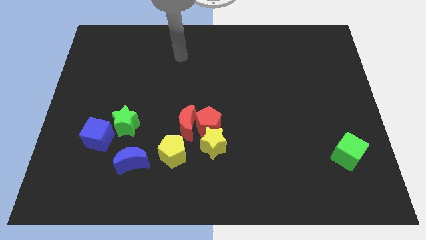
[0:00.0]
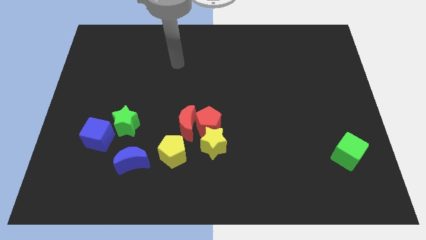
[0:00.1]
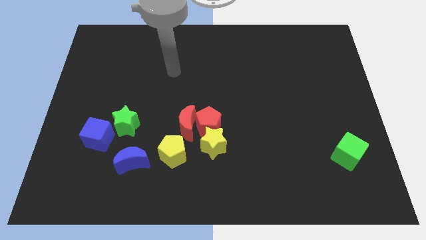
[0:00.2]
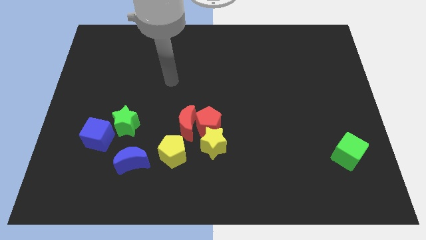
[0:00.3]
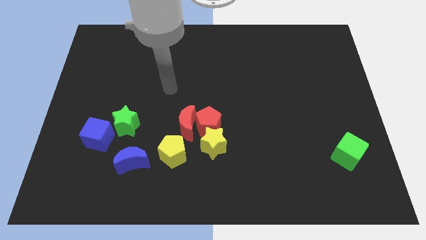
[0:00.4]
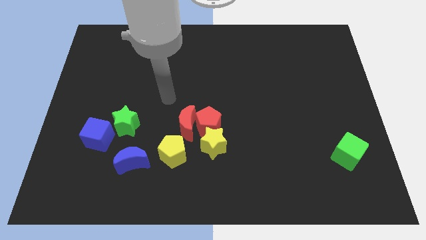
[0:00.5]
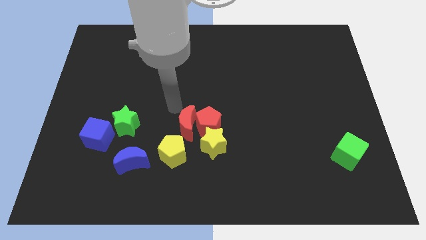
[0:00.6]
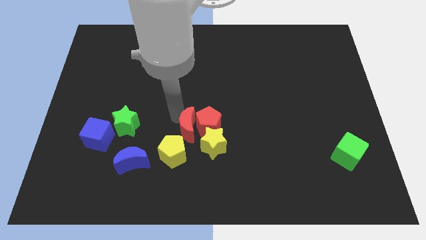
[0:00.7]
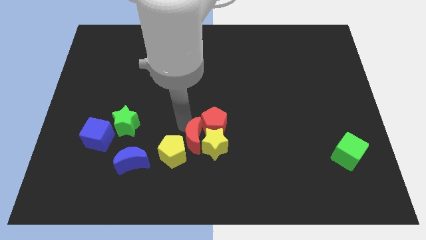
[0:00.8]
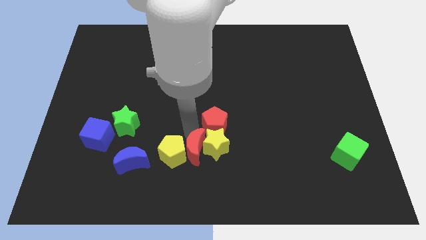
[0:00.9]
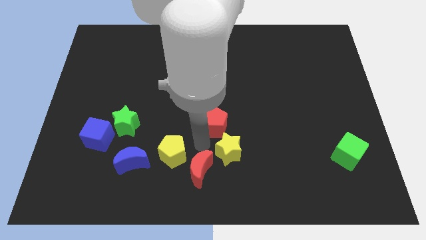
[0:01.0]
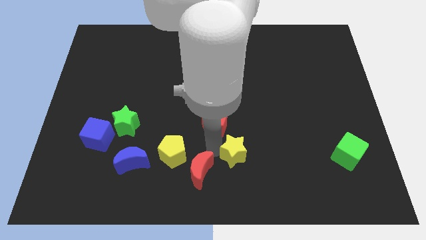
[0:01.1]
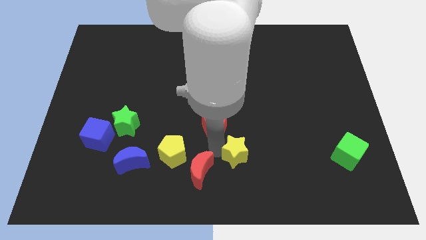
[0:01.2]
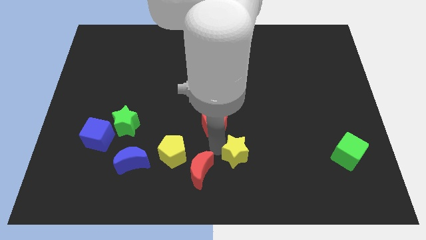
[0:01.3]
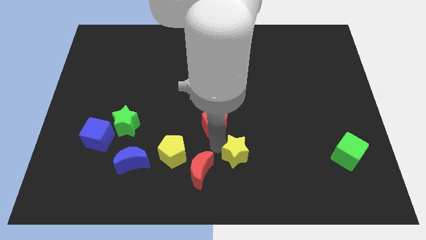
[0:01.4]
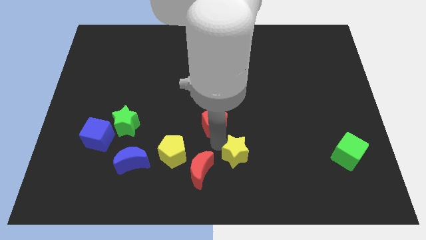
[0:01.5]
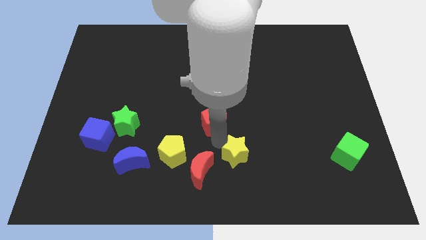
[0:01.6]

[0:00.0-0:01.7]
pull the red pentagon apart from the red moon and yellow star

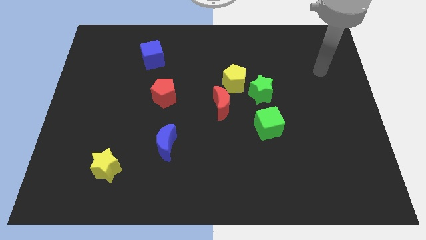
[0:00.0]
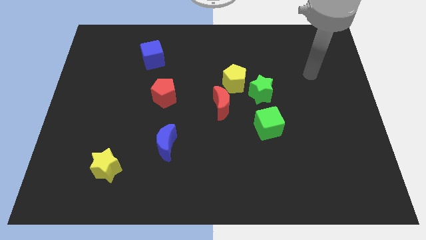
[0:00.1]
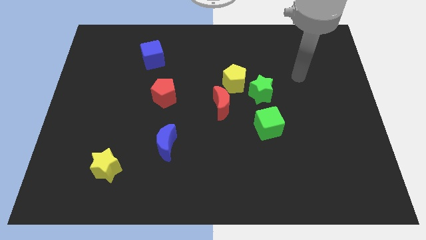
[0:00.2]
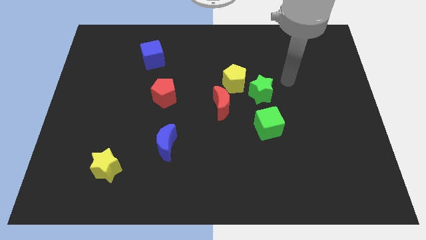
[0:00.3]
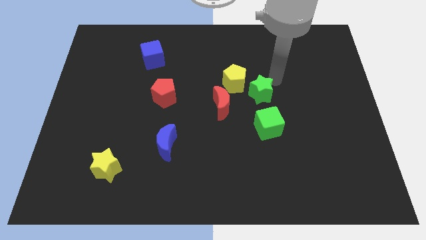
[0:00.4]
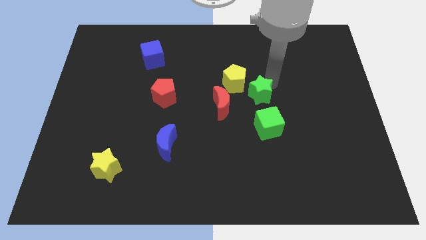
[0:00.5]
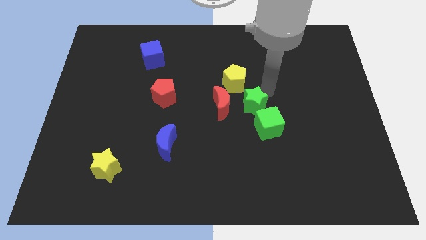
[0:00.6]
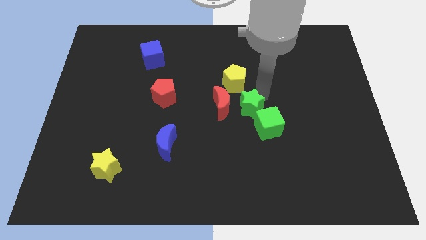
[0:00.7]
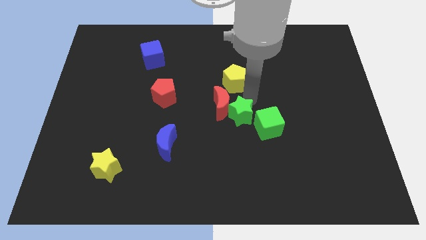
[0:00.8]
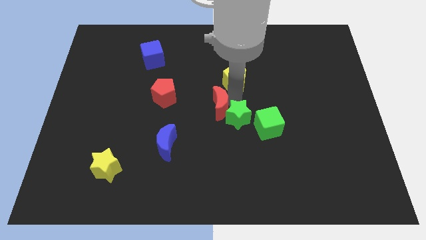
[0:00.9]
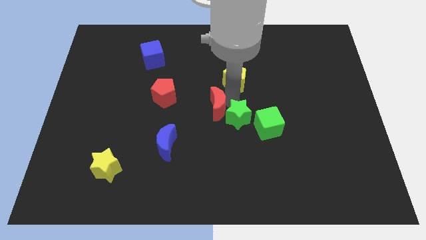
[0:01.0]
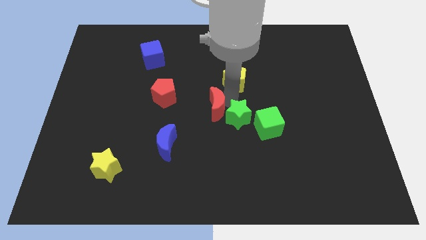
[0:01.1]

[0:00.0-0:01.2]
pull the yellow pentagon apart from the green star and red moon

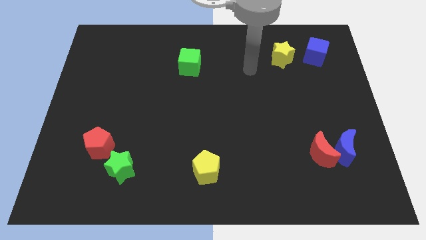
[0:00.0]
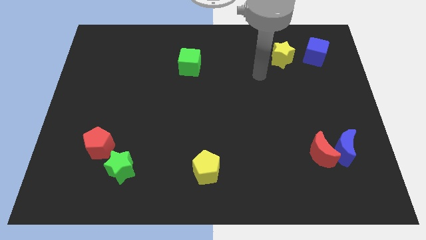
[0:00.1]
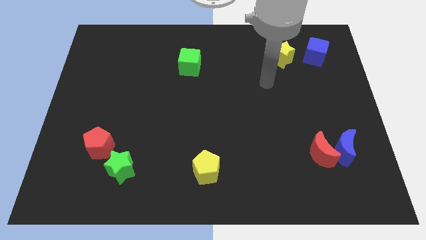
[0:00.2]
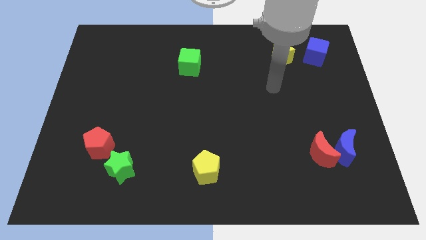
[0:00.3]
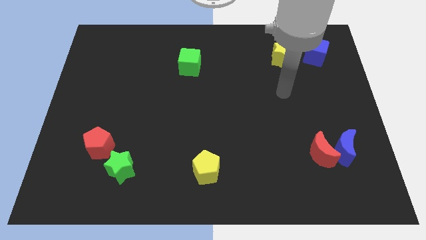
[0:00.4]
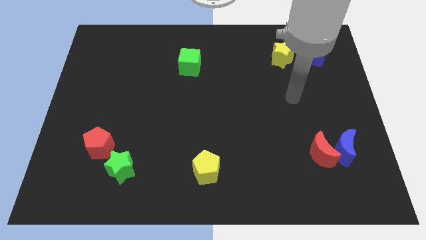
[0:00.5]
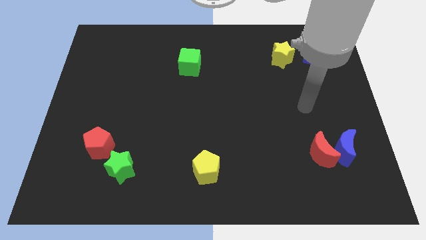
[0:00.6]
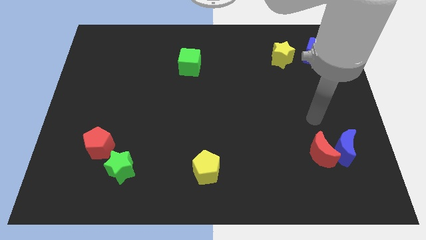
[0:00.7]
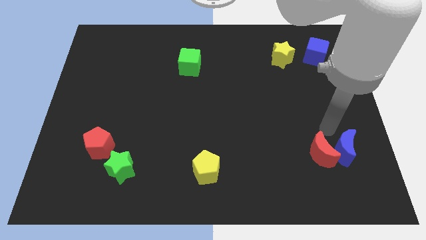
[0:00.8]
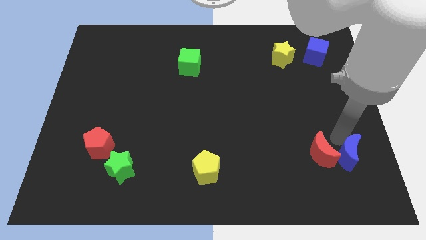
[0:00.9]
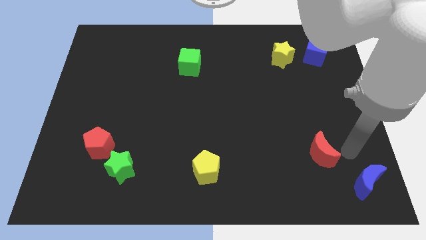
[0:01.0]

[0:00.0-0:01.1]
pull the red moon apart from the blue moon

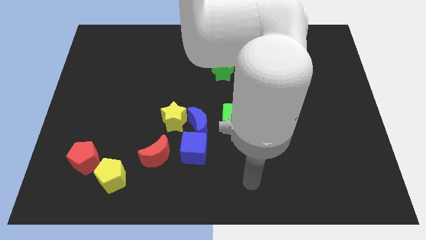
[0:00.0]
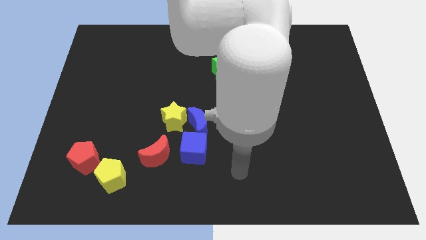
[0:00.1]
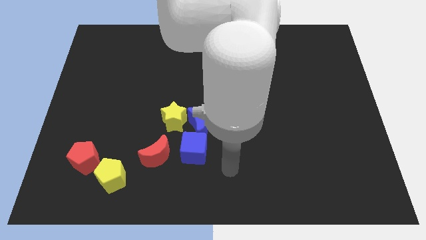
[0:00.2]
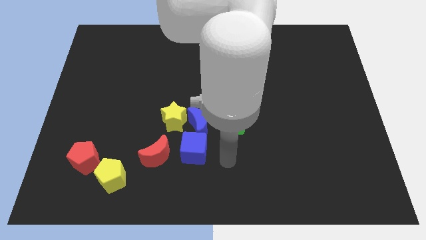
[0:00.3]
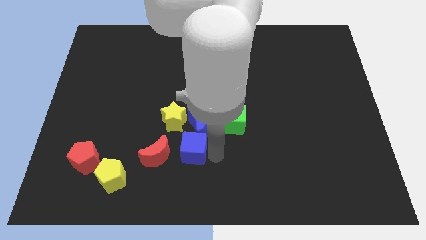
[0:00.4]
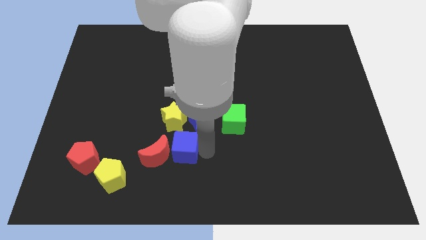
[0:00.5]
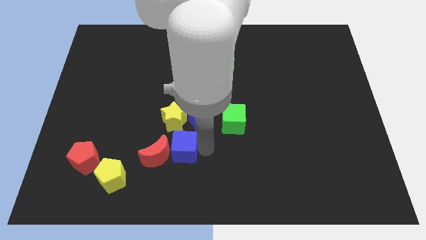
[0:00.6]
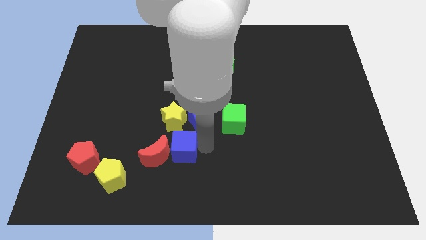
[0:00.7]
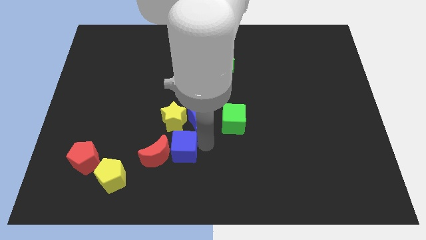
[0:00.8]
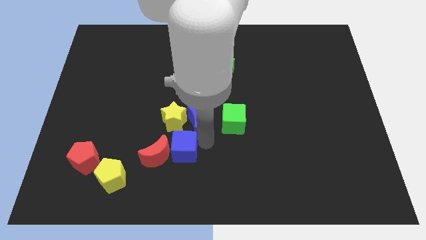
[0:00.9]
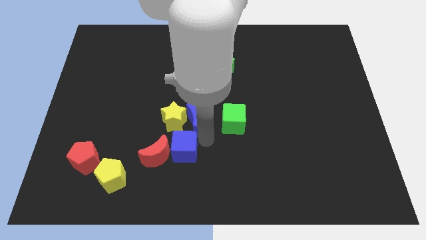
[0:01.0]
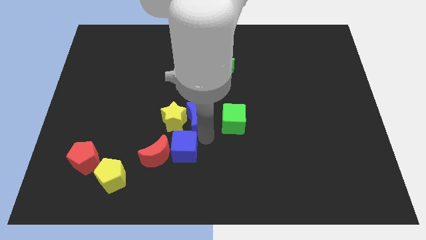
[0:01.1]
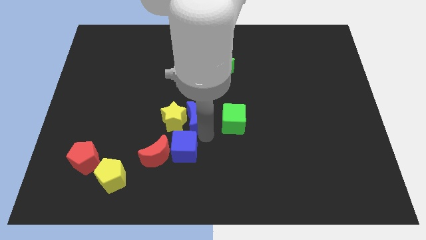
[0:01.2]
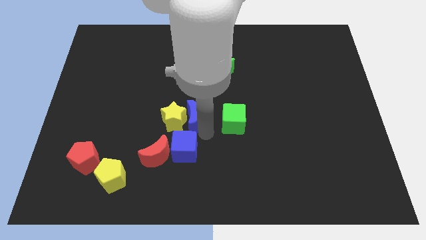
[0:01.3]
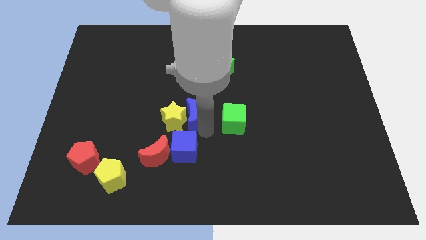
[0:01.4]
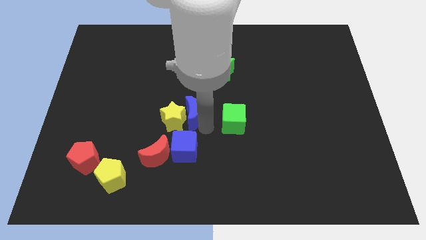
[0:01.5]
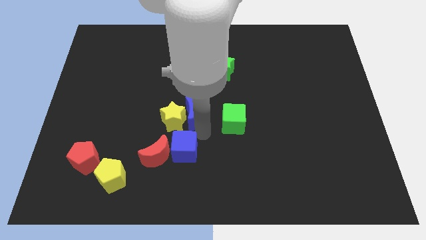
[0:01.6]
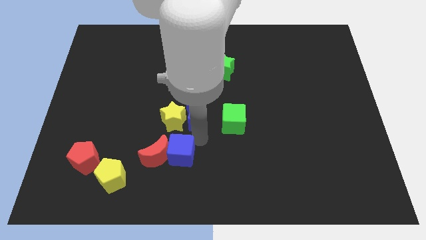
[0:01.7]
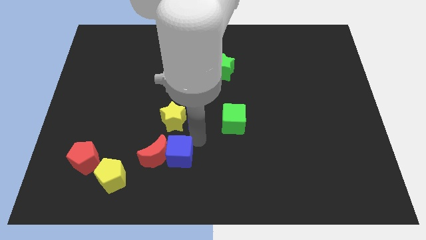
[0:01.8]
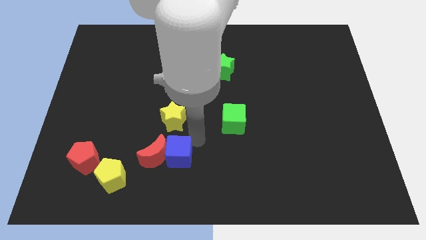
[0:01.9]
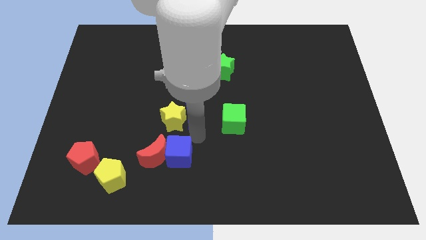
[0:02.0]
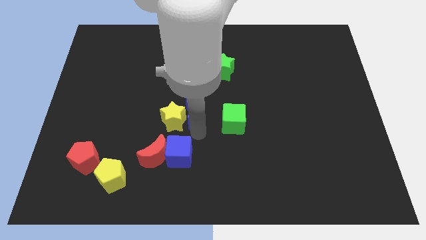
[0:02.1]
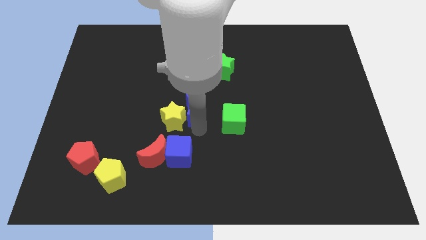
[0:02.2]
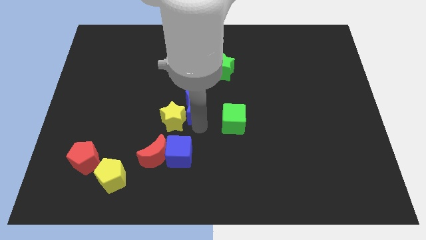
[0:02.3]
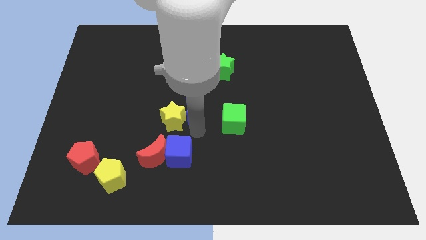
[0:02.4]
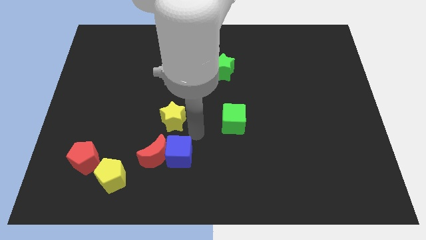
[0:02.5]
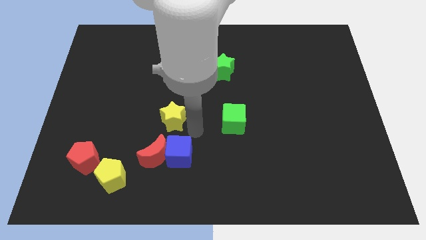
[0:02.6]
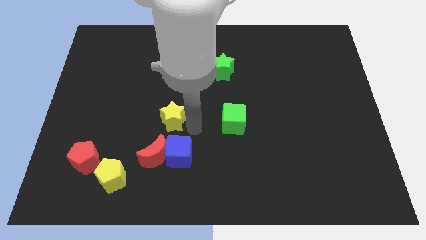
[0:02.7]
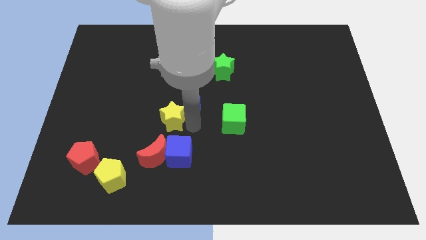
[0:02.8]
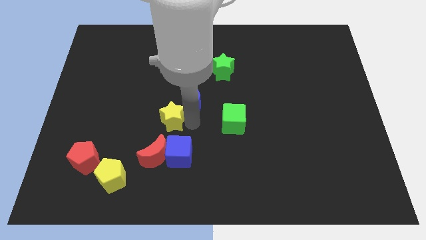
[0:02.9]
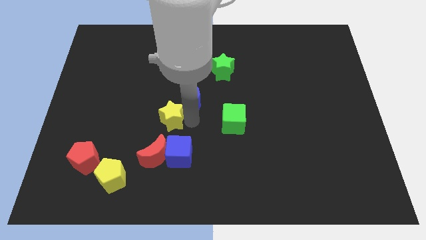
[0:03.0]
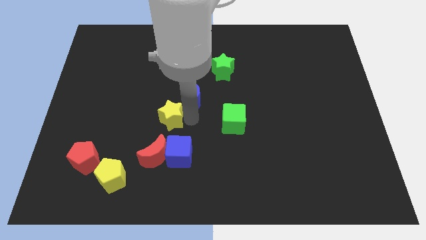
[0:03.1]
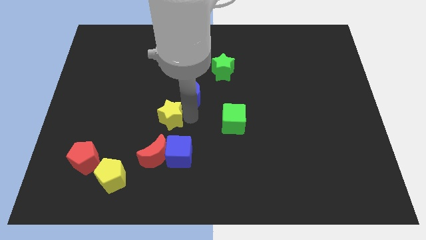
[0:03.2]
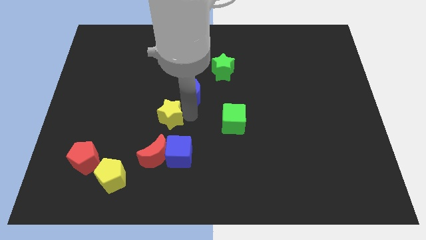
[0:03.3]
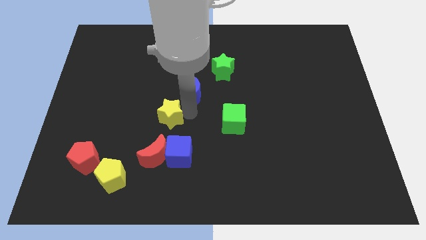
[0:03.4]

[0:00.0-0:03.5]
separate the blue moon from the yellow star, blue cube, and green cube

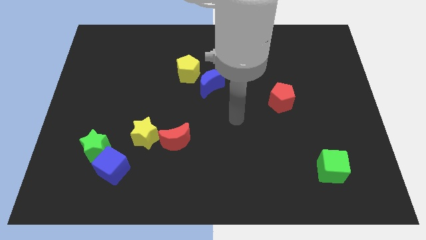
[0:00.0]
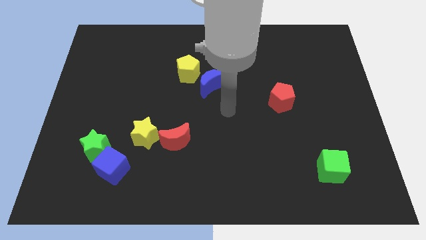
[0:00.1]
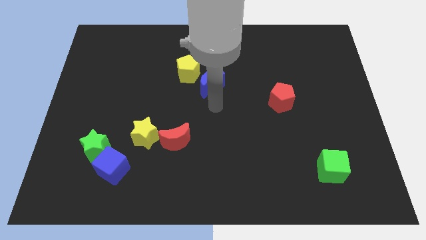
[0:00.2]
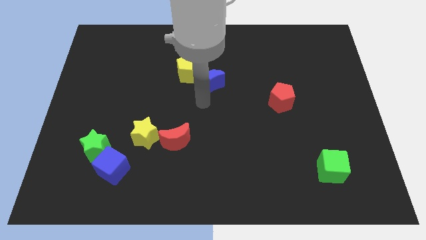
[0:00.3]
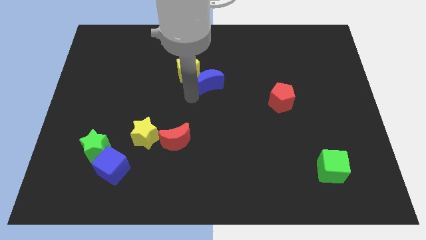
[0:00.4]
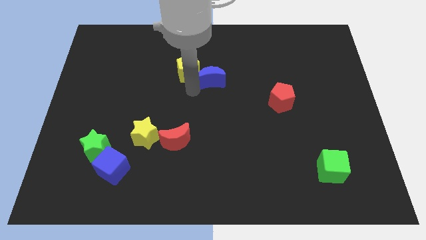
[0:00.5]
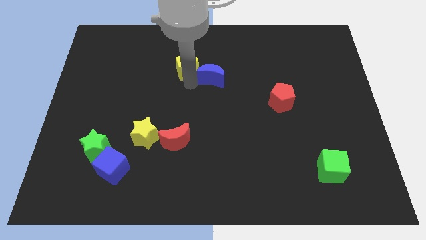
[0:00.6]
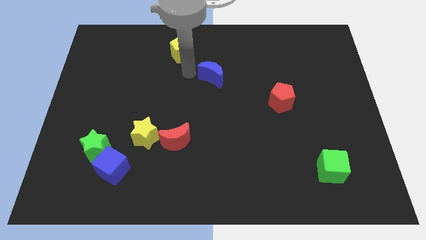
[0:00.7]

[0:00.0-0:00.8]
move the blue moon away from the yellow pentagon

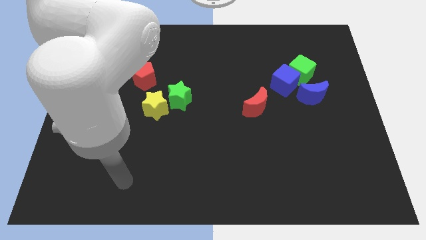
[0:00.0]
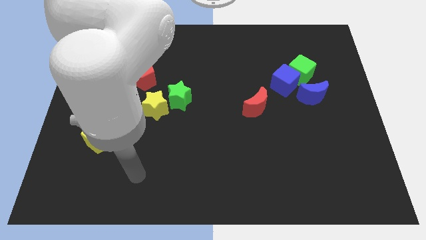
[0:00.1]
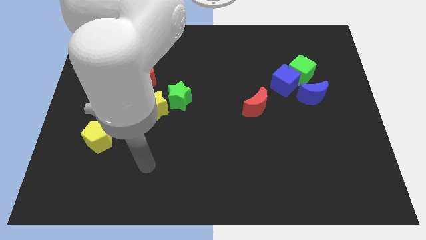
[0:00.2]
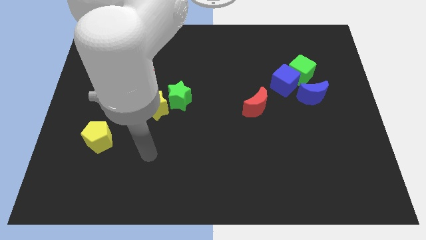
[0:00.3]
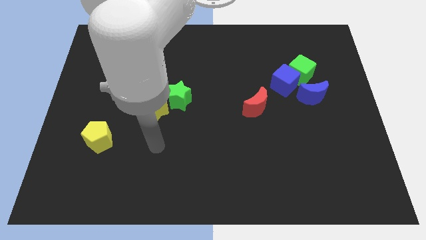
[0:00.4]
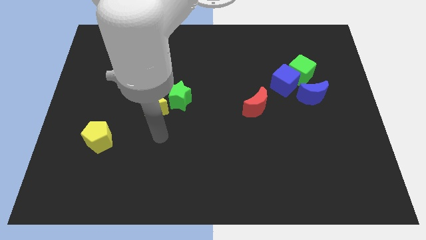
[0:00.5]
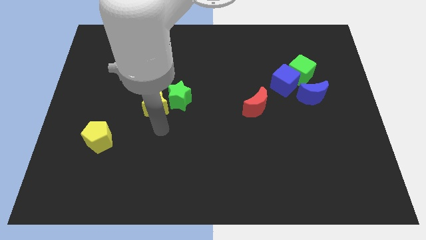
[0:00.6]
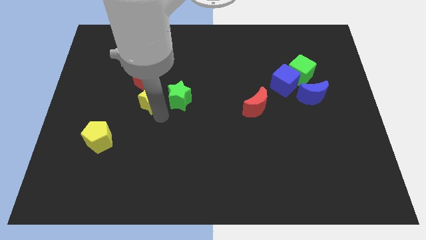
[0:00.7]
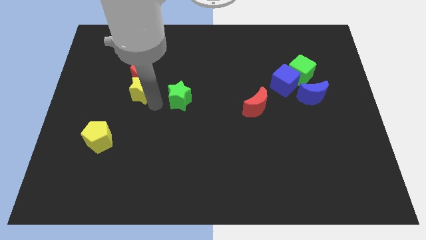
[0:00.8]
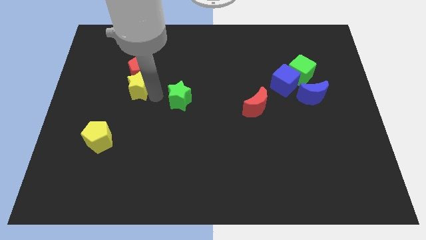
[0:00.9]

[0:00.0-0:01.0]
move the green star away from the yellow star

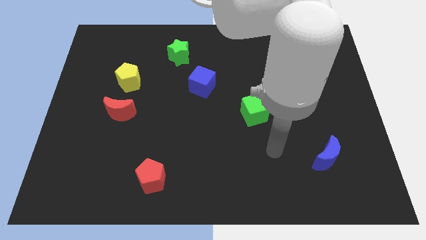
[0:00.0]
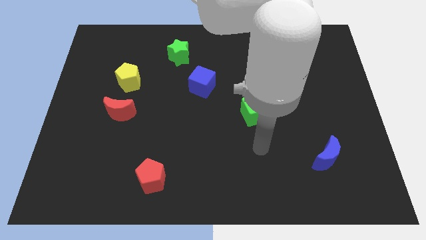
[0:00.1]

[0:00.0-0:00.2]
pull the red moon apart from the yellow pentagon
